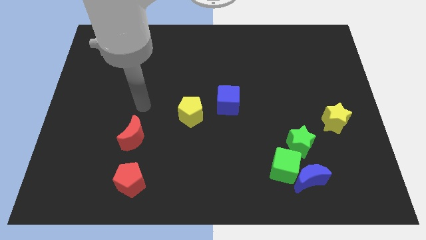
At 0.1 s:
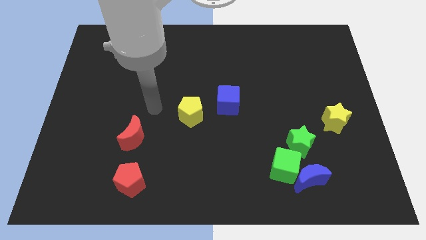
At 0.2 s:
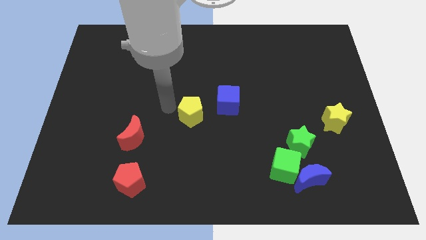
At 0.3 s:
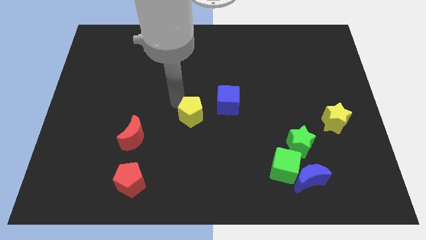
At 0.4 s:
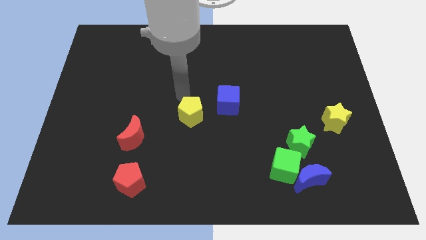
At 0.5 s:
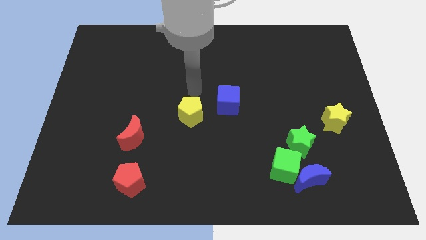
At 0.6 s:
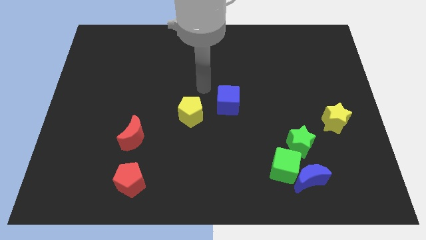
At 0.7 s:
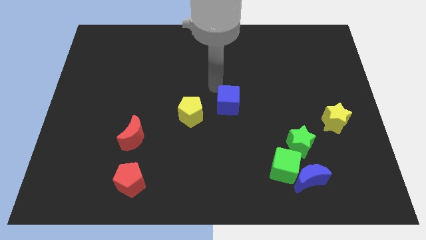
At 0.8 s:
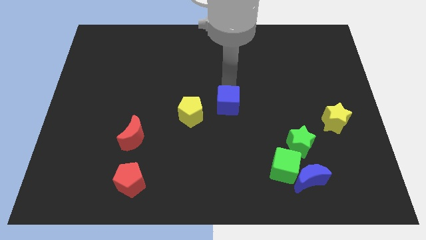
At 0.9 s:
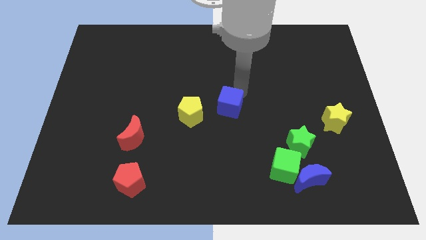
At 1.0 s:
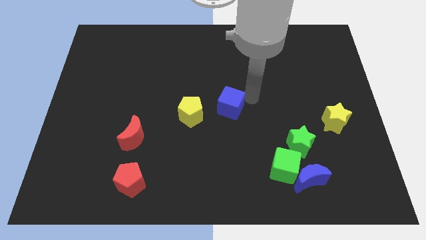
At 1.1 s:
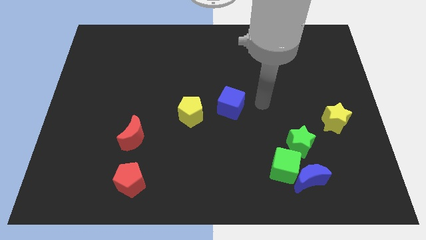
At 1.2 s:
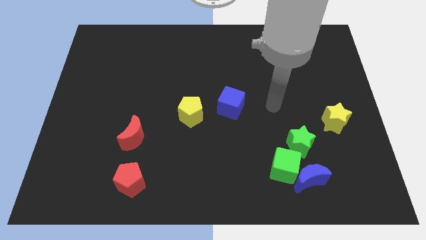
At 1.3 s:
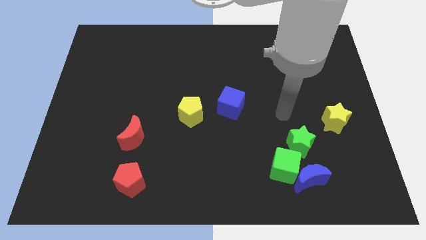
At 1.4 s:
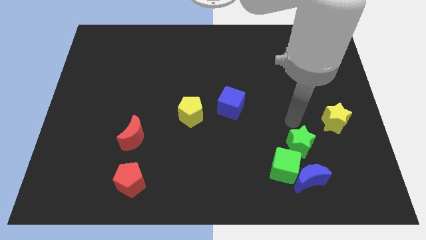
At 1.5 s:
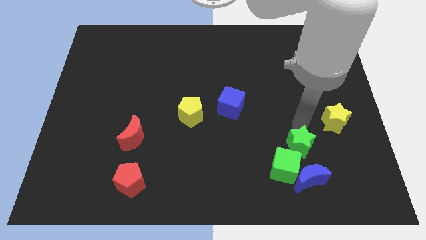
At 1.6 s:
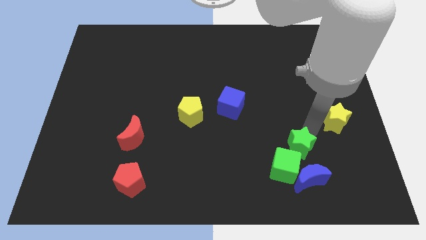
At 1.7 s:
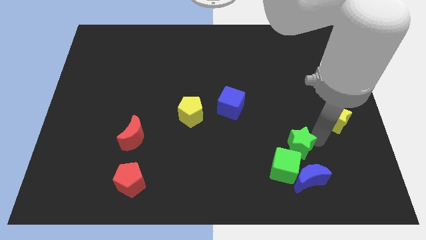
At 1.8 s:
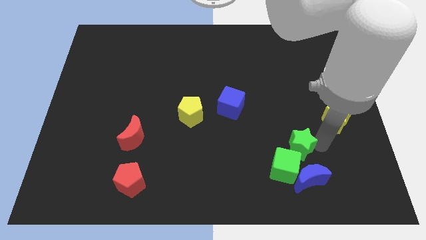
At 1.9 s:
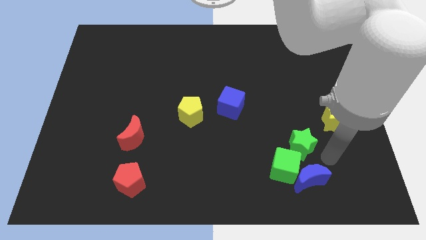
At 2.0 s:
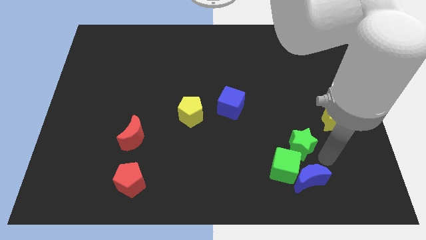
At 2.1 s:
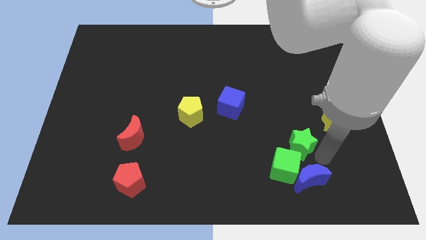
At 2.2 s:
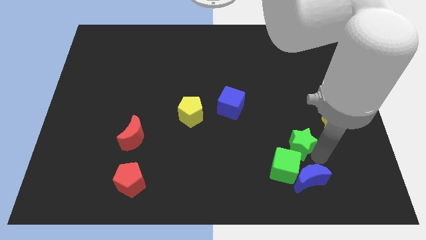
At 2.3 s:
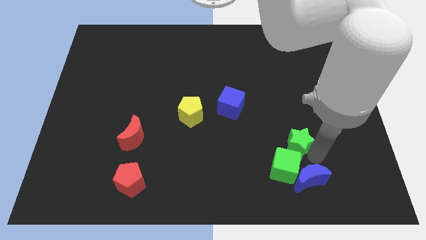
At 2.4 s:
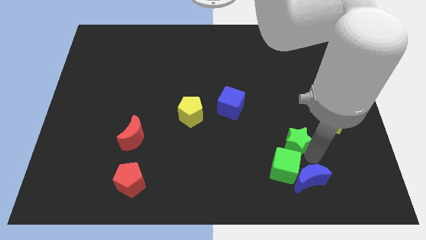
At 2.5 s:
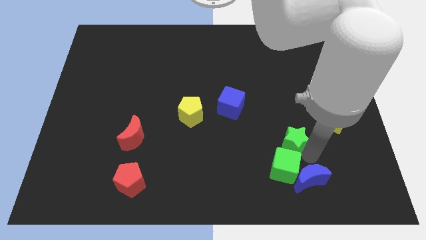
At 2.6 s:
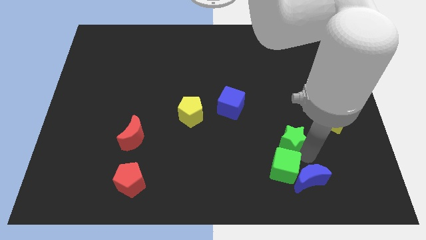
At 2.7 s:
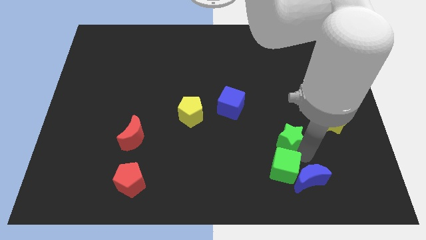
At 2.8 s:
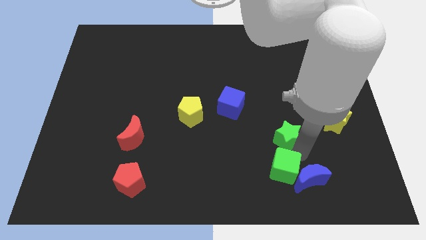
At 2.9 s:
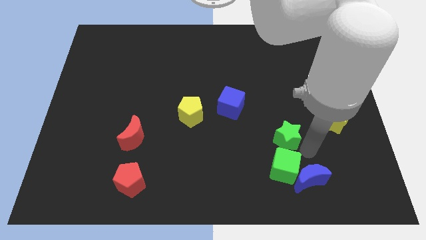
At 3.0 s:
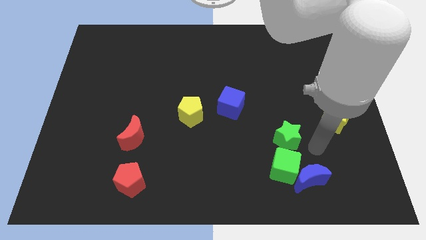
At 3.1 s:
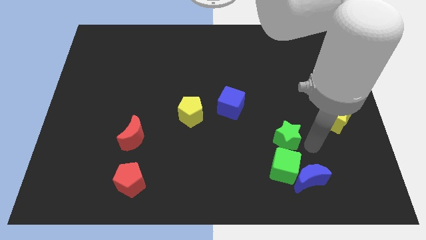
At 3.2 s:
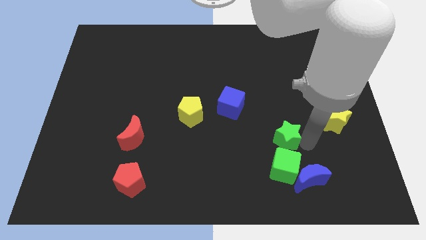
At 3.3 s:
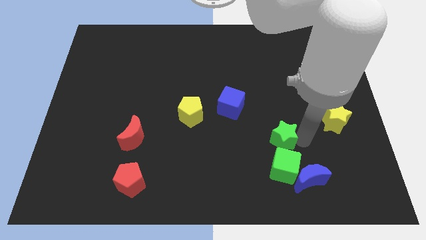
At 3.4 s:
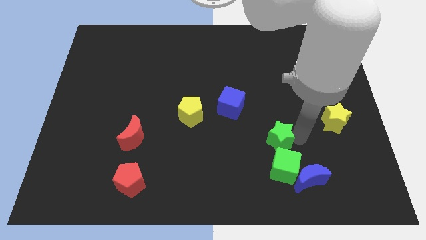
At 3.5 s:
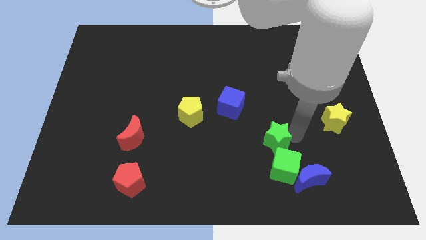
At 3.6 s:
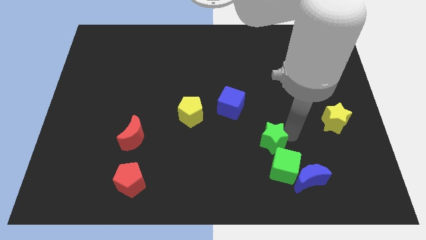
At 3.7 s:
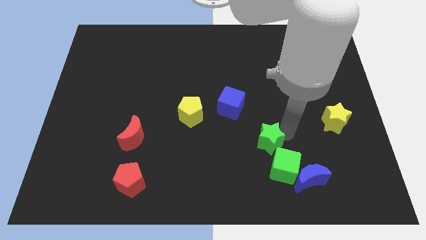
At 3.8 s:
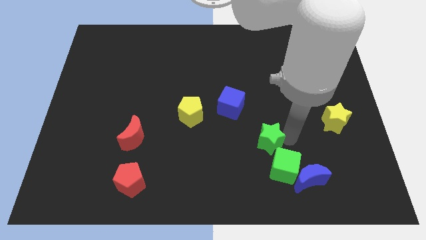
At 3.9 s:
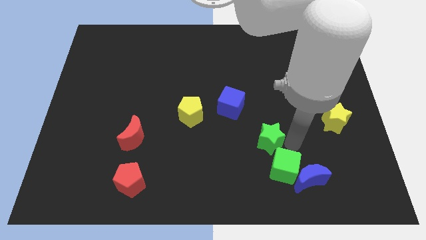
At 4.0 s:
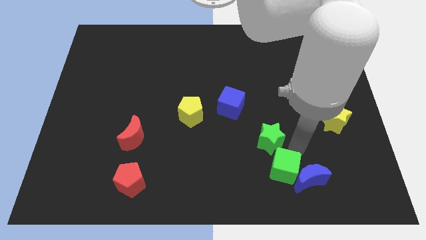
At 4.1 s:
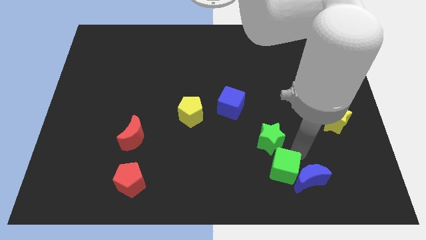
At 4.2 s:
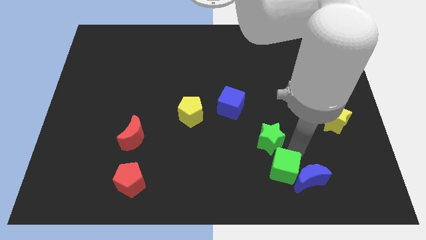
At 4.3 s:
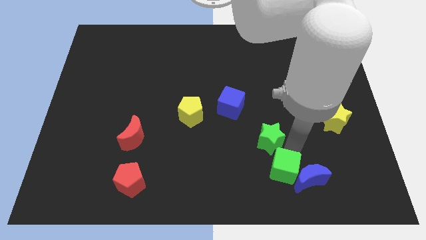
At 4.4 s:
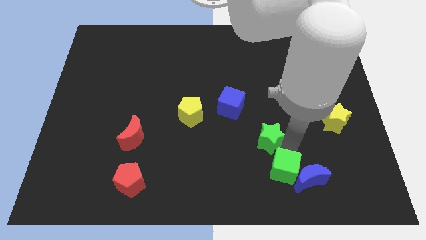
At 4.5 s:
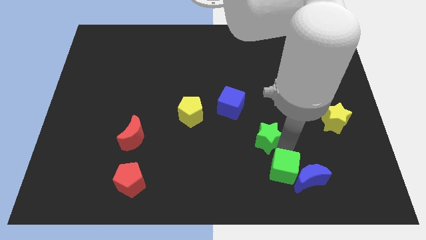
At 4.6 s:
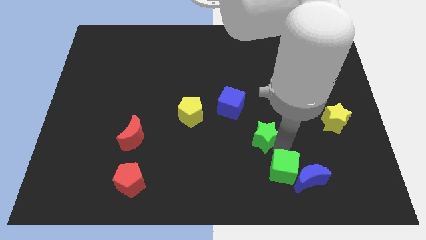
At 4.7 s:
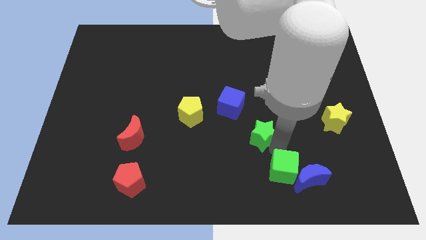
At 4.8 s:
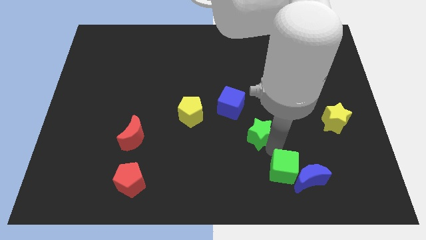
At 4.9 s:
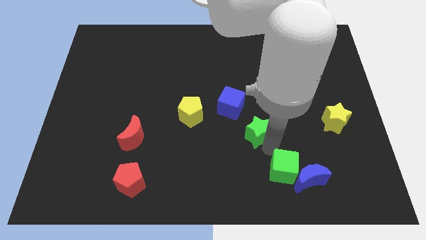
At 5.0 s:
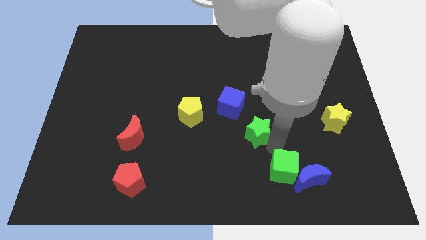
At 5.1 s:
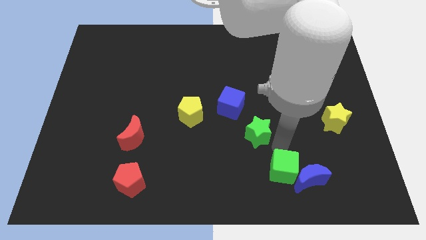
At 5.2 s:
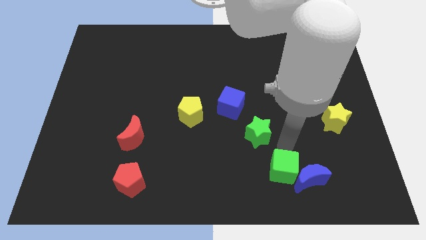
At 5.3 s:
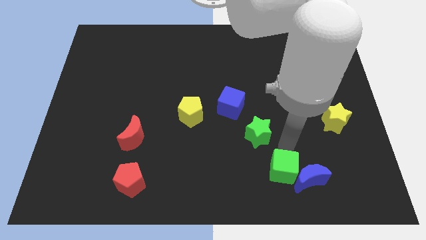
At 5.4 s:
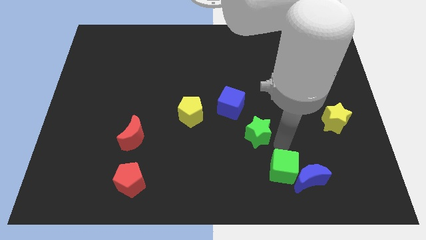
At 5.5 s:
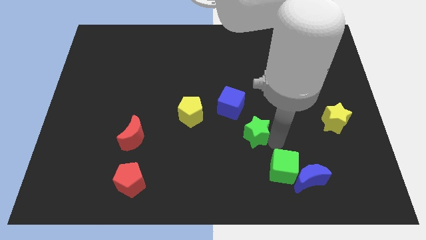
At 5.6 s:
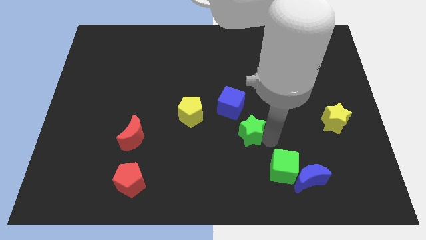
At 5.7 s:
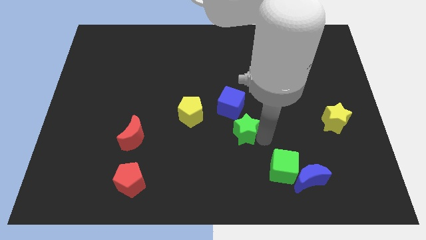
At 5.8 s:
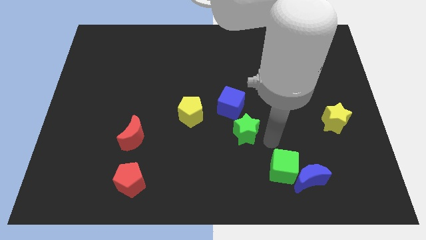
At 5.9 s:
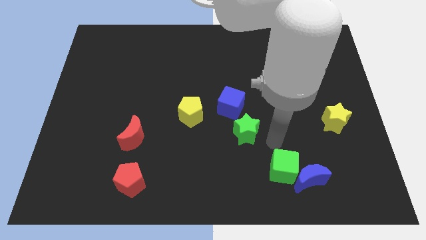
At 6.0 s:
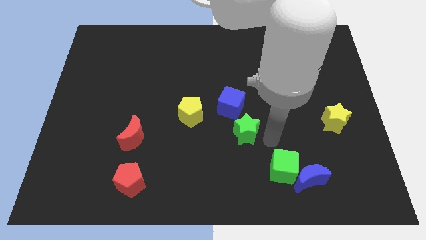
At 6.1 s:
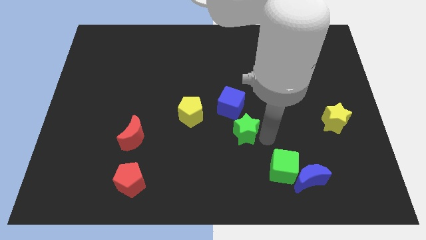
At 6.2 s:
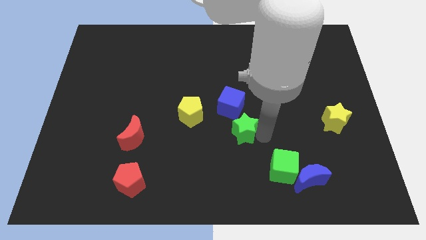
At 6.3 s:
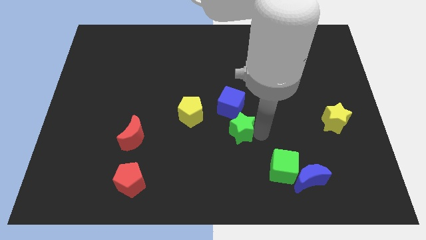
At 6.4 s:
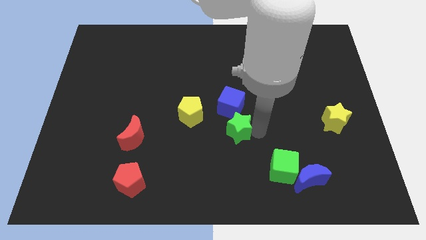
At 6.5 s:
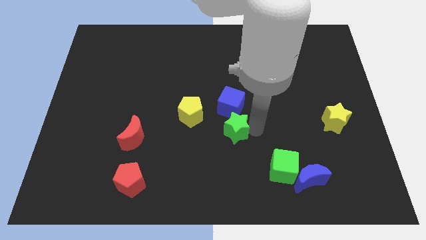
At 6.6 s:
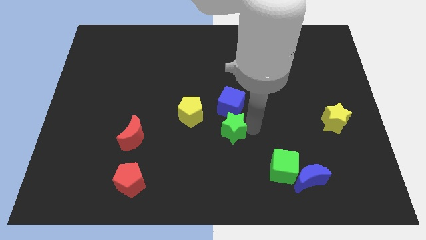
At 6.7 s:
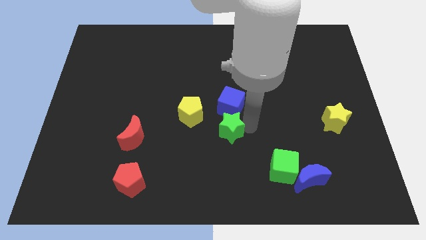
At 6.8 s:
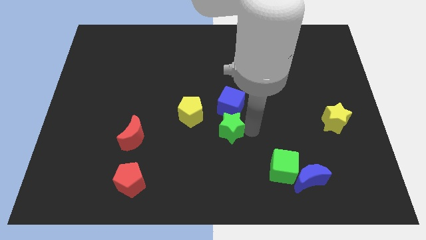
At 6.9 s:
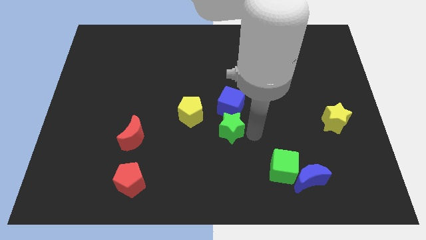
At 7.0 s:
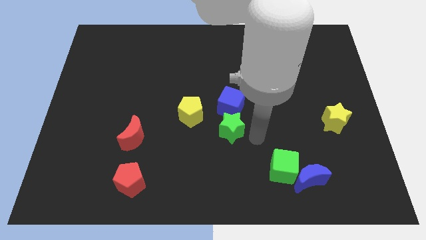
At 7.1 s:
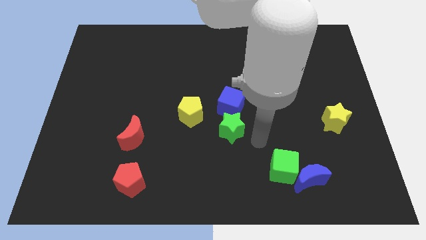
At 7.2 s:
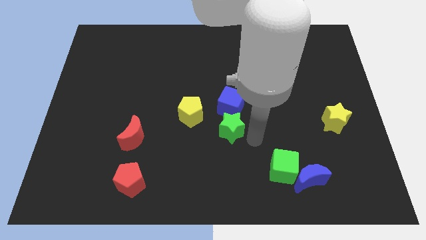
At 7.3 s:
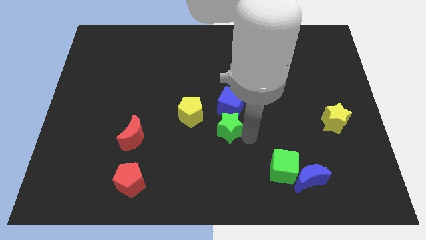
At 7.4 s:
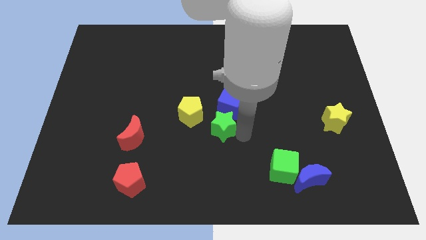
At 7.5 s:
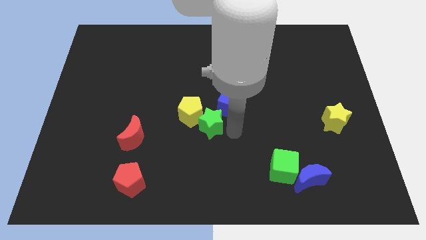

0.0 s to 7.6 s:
put the green star towards the yellow pentagon
